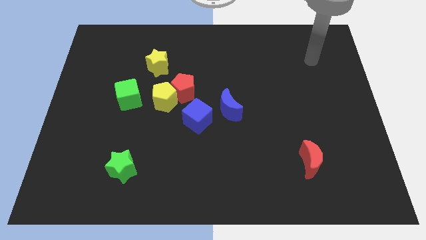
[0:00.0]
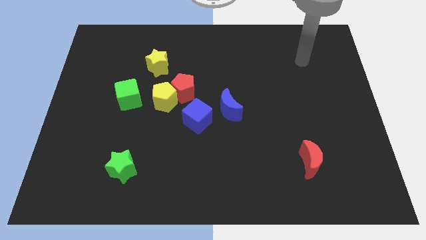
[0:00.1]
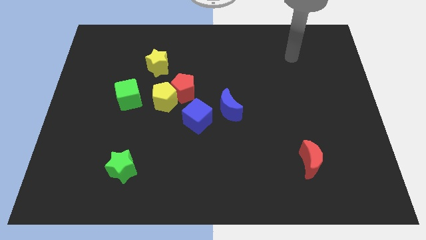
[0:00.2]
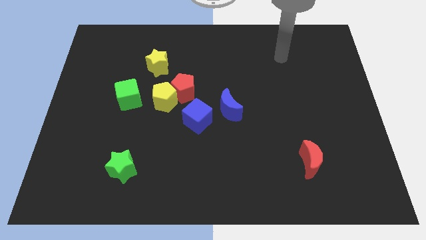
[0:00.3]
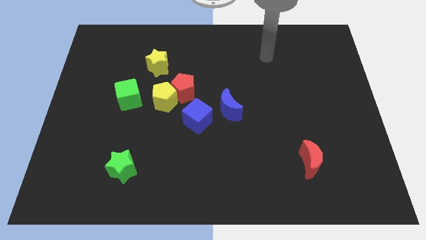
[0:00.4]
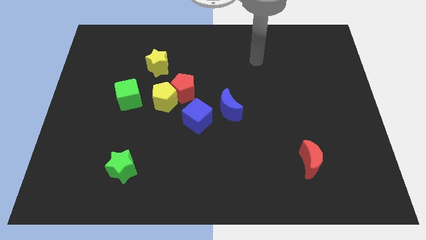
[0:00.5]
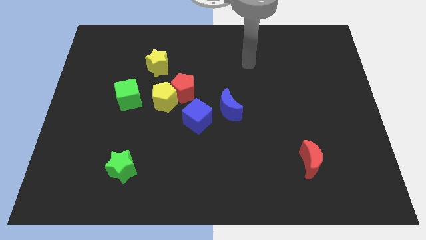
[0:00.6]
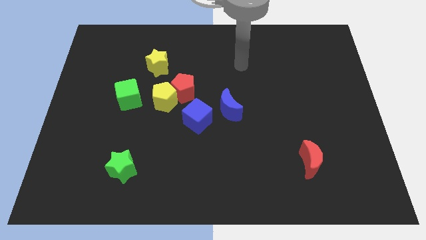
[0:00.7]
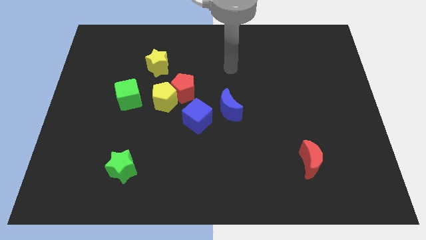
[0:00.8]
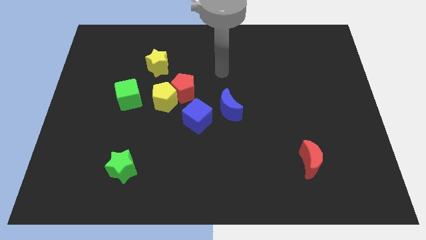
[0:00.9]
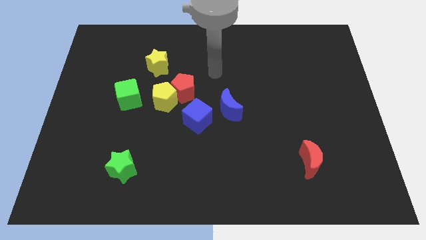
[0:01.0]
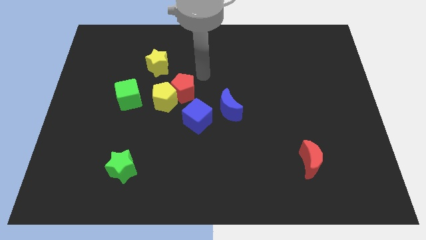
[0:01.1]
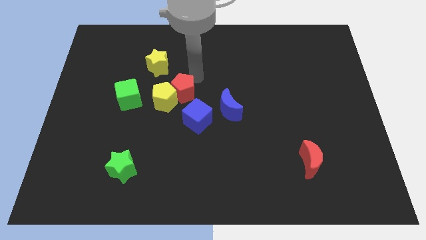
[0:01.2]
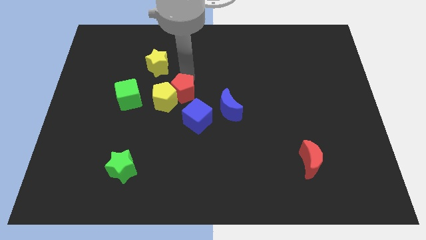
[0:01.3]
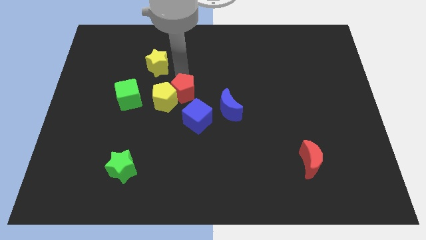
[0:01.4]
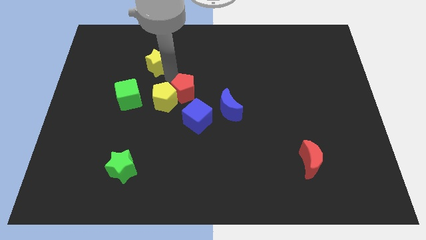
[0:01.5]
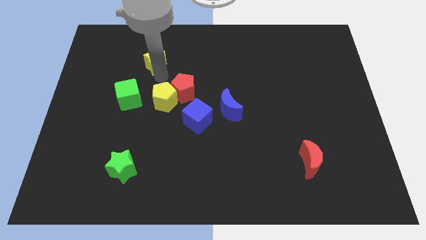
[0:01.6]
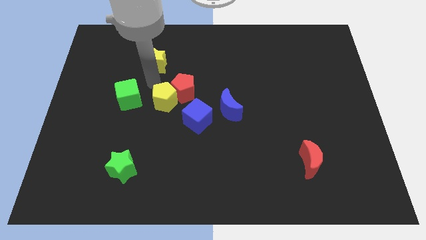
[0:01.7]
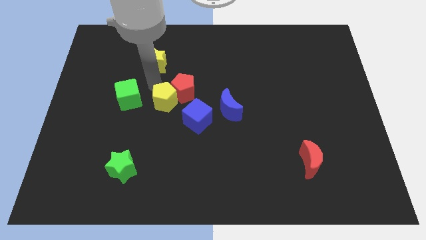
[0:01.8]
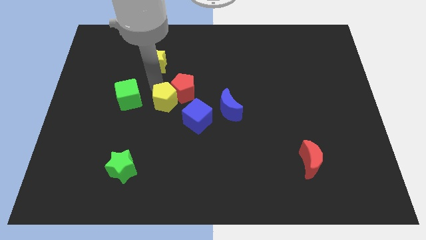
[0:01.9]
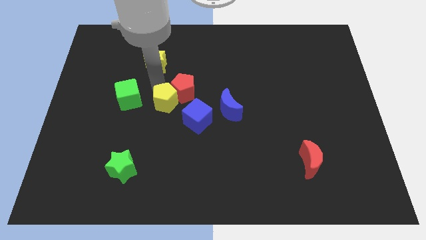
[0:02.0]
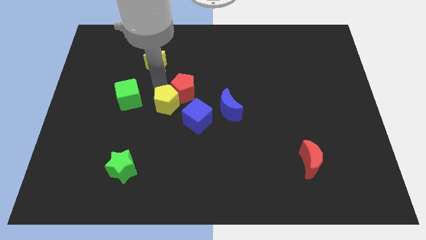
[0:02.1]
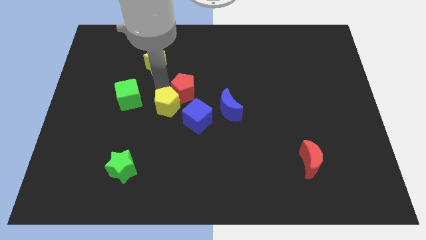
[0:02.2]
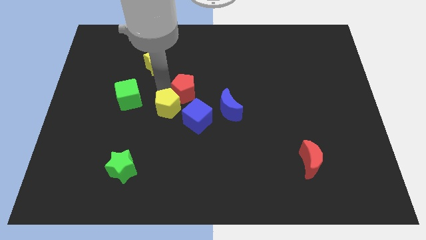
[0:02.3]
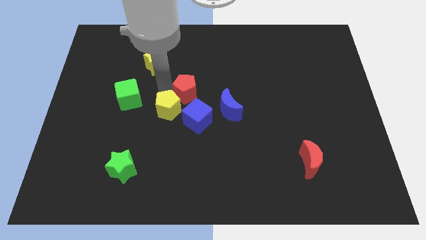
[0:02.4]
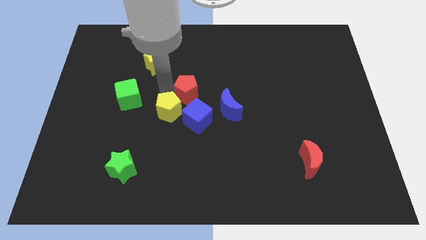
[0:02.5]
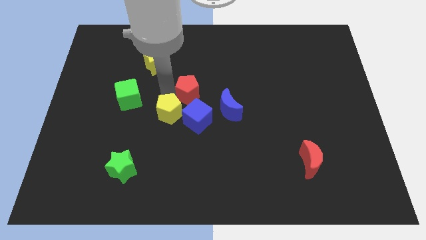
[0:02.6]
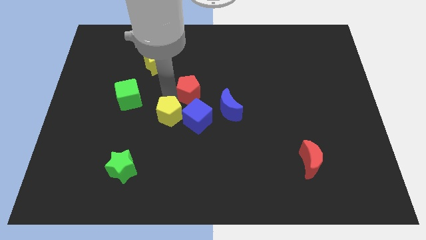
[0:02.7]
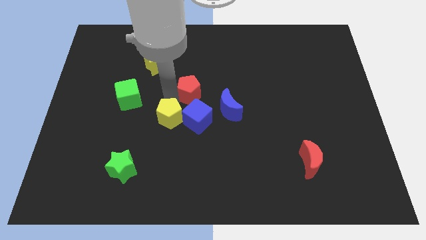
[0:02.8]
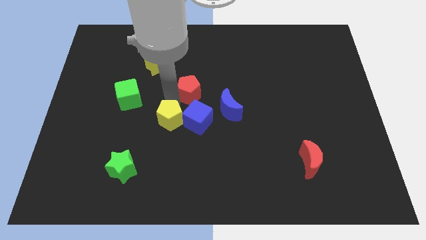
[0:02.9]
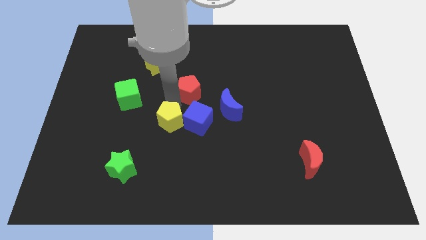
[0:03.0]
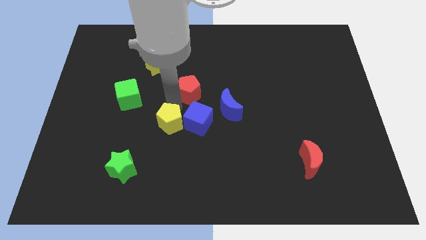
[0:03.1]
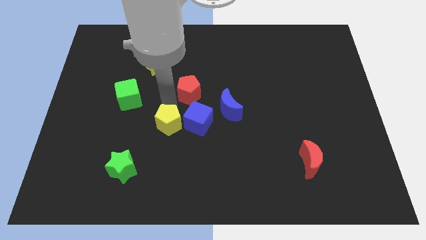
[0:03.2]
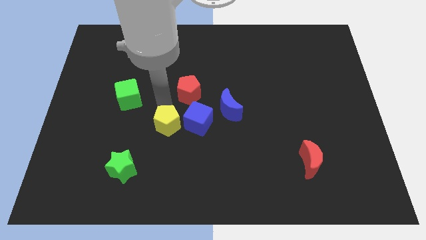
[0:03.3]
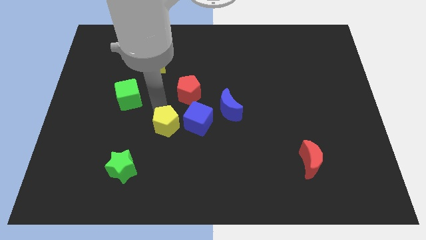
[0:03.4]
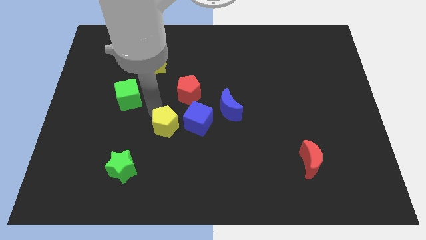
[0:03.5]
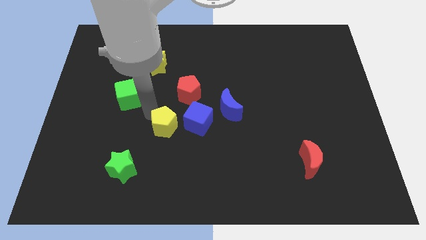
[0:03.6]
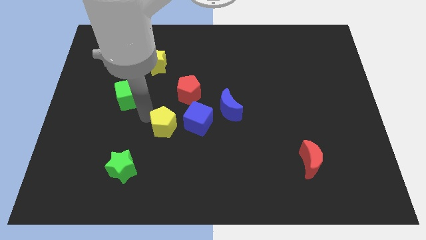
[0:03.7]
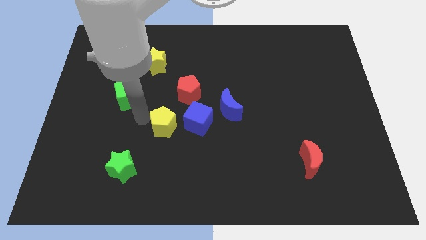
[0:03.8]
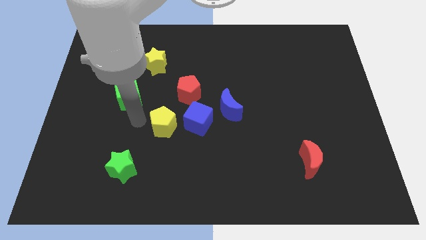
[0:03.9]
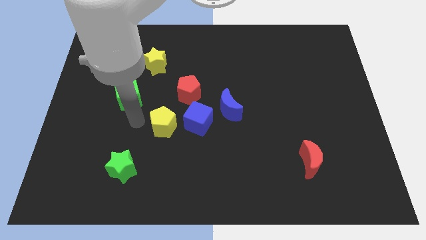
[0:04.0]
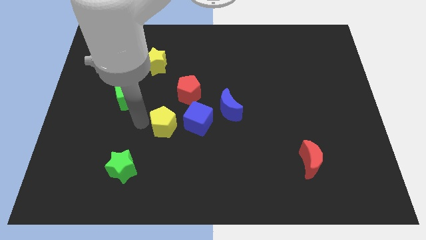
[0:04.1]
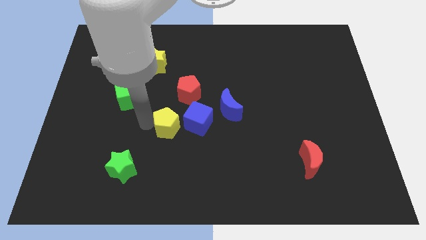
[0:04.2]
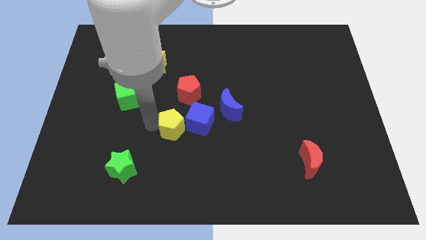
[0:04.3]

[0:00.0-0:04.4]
slightly move the yellow pentagon diagonally downwards and right

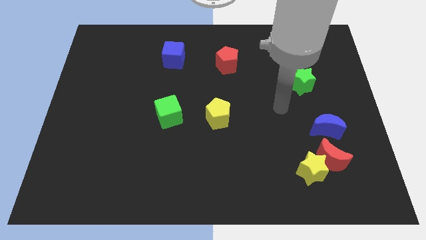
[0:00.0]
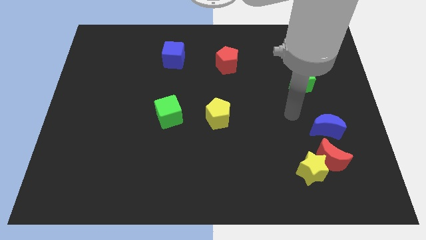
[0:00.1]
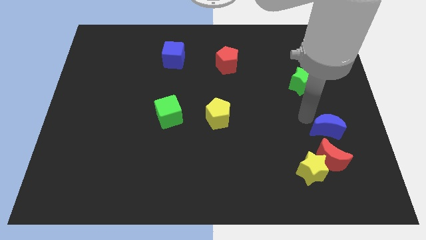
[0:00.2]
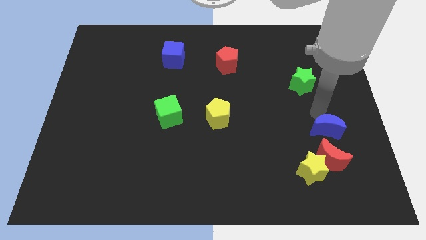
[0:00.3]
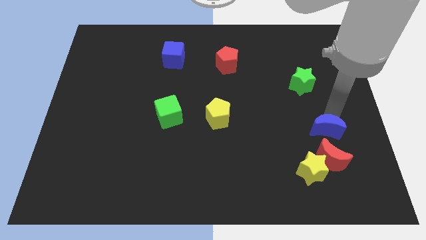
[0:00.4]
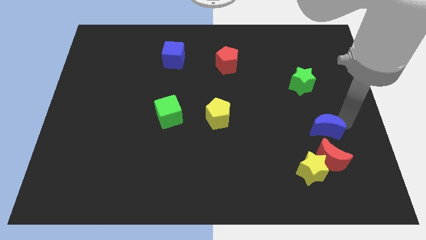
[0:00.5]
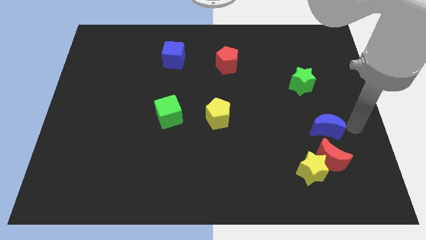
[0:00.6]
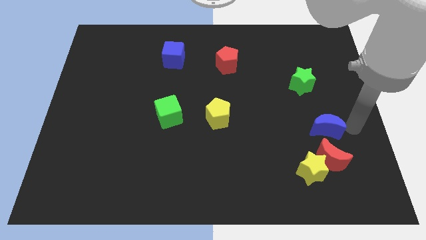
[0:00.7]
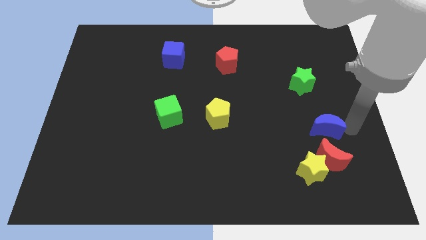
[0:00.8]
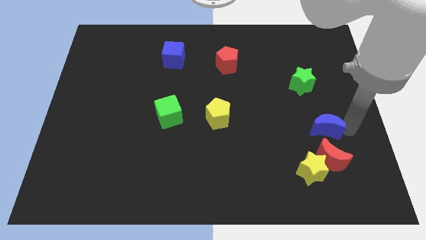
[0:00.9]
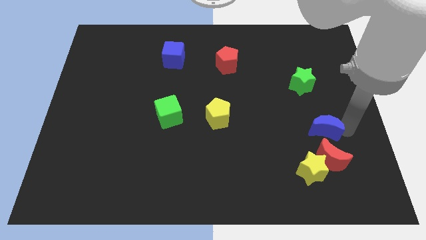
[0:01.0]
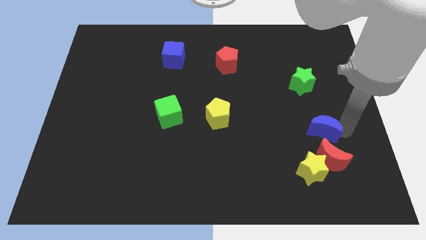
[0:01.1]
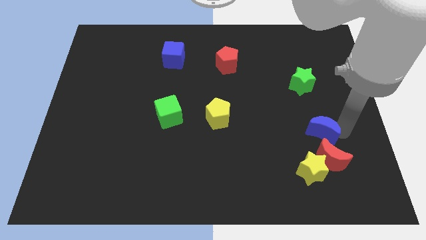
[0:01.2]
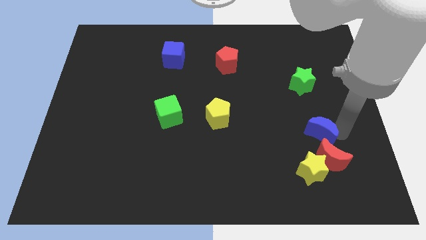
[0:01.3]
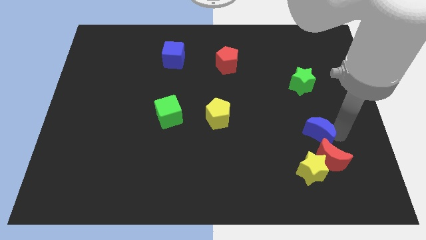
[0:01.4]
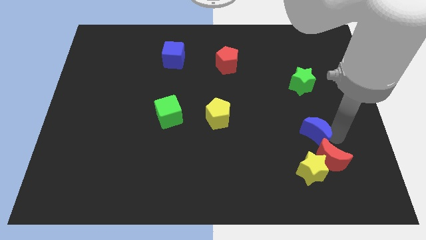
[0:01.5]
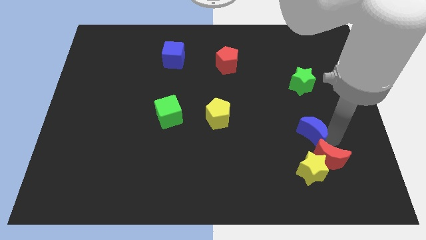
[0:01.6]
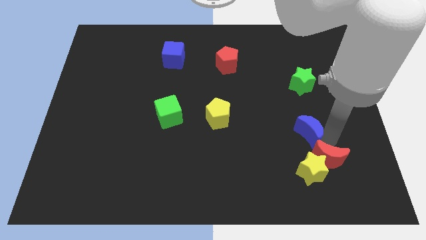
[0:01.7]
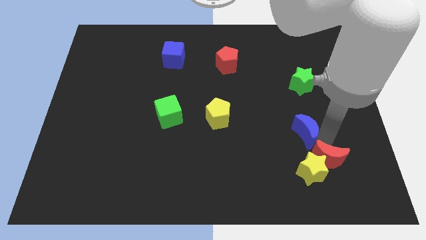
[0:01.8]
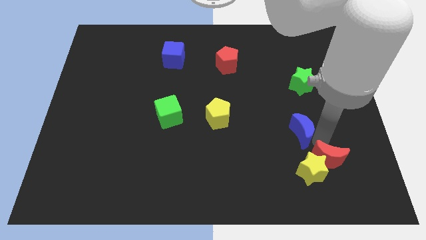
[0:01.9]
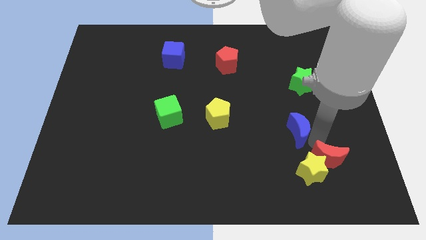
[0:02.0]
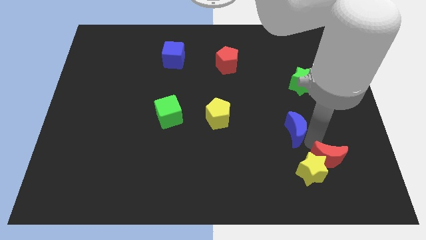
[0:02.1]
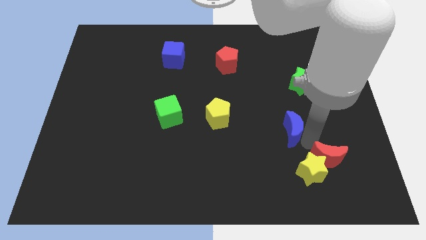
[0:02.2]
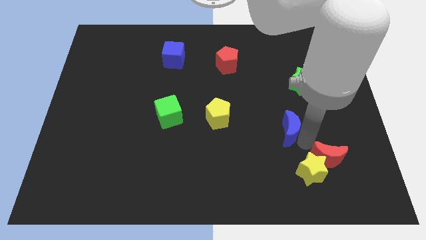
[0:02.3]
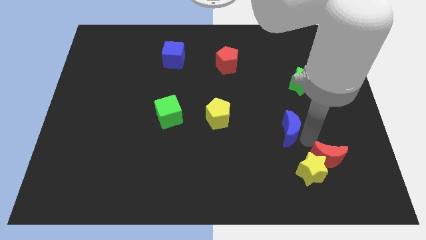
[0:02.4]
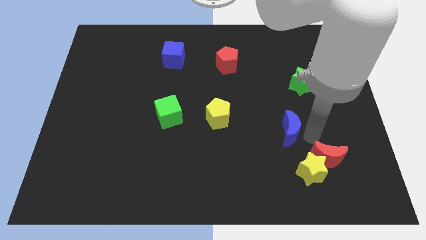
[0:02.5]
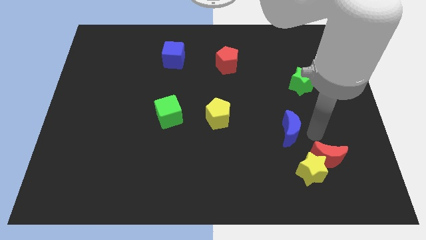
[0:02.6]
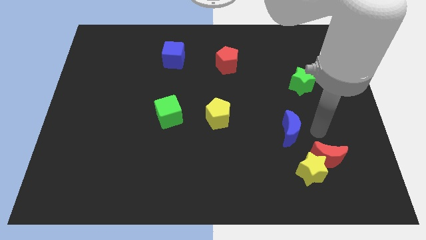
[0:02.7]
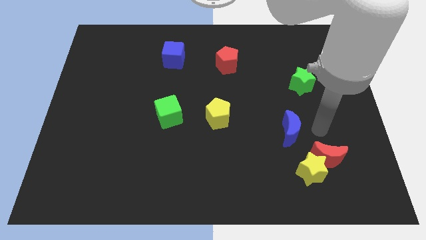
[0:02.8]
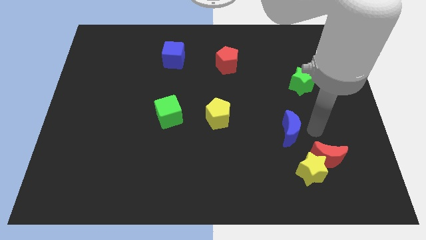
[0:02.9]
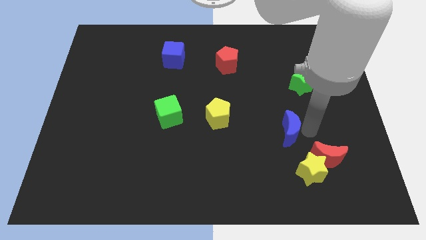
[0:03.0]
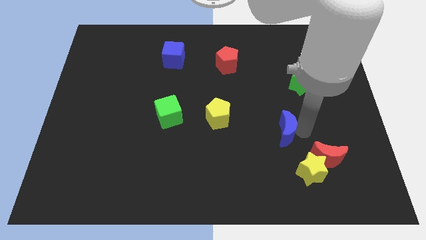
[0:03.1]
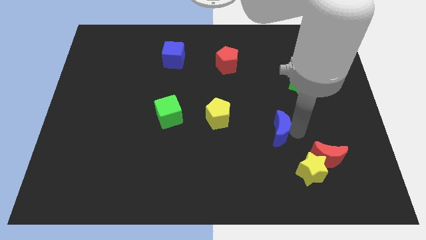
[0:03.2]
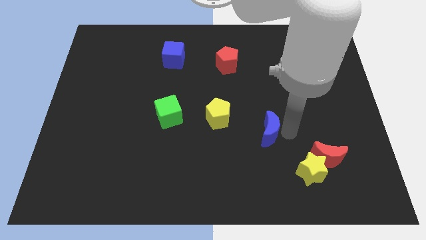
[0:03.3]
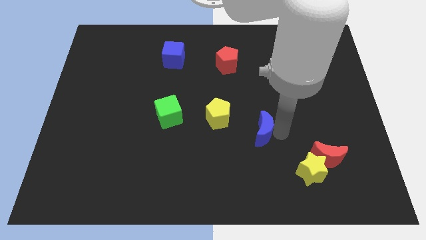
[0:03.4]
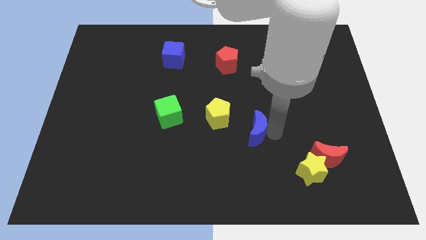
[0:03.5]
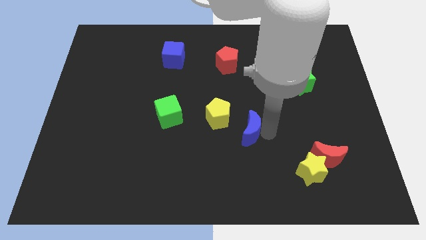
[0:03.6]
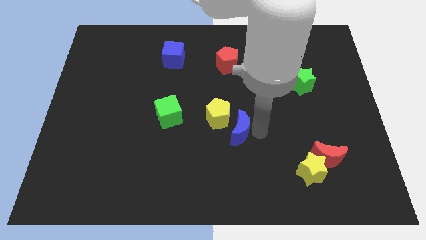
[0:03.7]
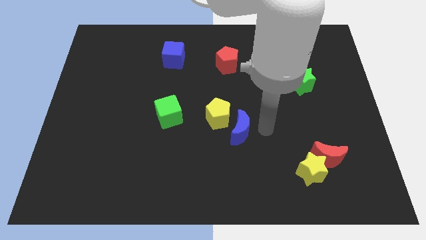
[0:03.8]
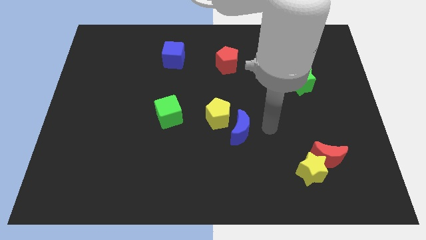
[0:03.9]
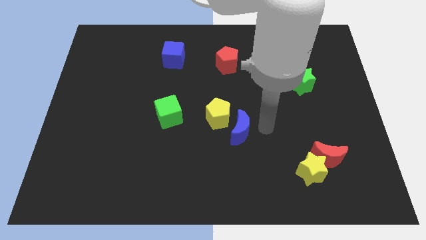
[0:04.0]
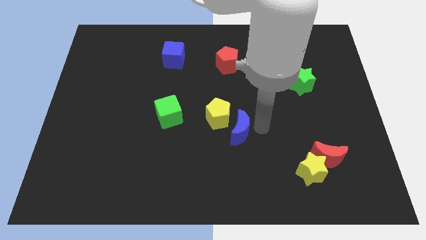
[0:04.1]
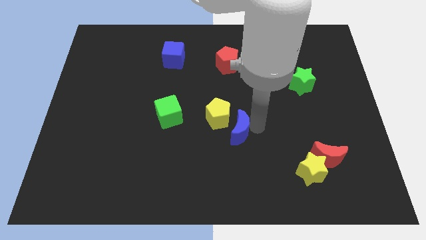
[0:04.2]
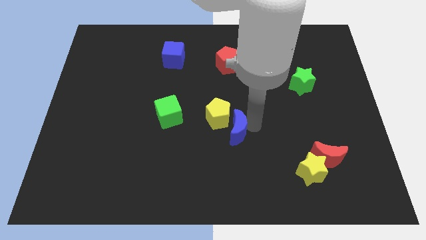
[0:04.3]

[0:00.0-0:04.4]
move the blue moon to the left
